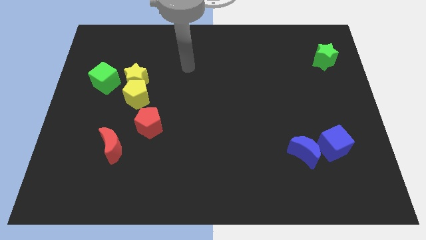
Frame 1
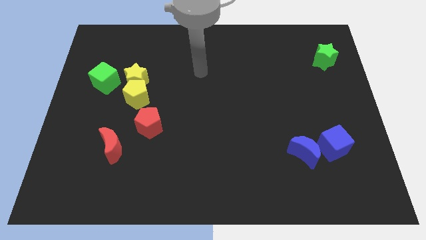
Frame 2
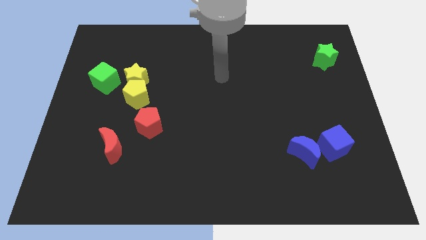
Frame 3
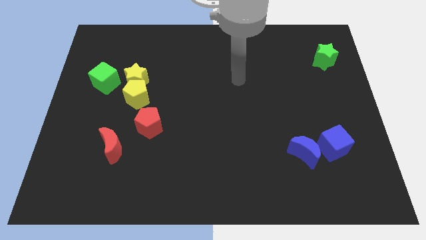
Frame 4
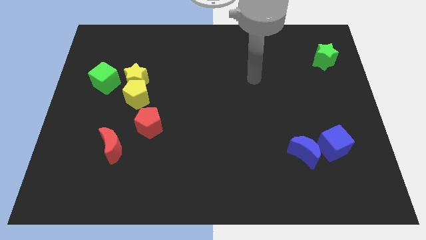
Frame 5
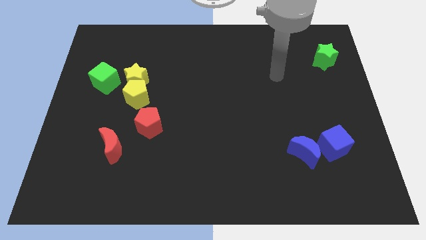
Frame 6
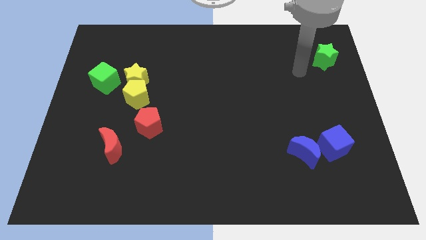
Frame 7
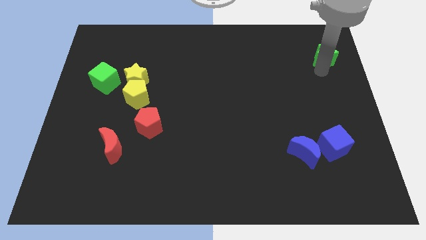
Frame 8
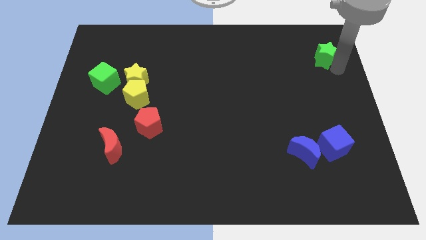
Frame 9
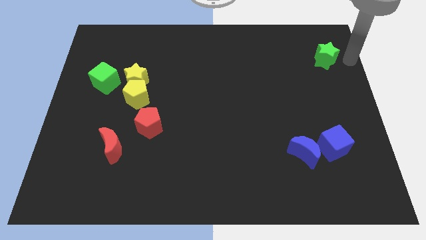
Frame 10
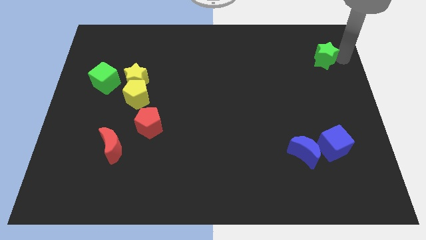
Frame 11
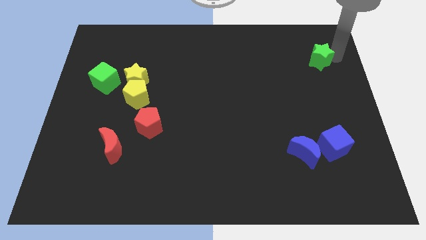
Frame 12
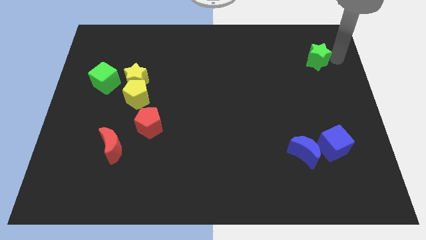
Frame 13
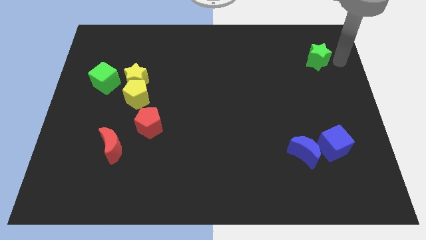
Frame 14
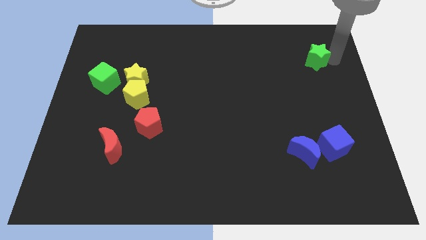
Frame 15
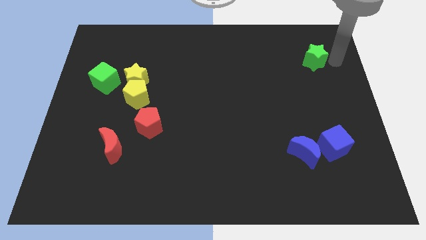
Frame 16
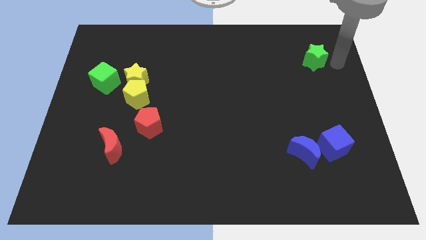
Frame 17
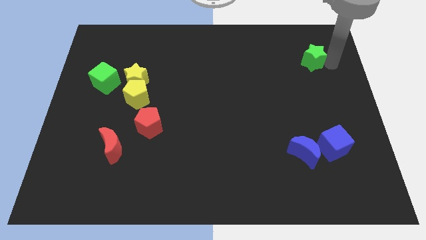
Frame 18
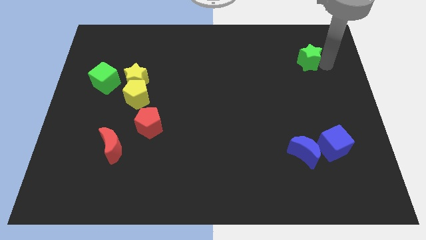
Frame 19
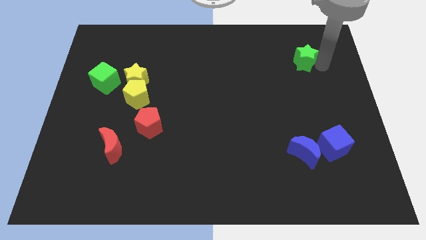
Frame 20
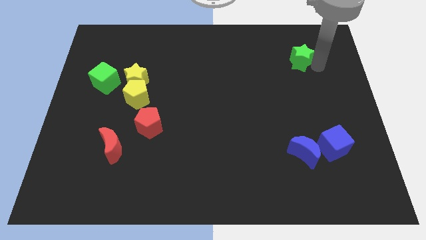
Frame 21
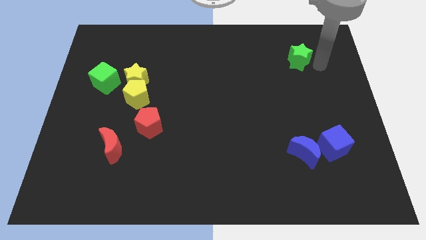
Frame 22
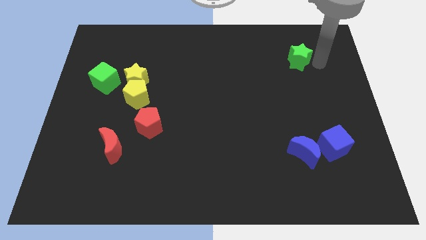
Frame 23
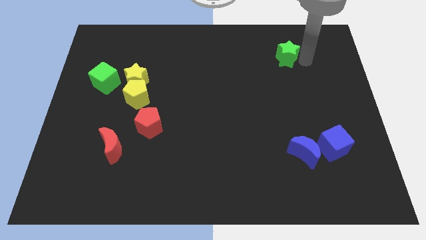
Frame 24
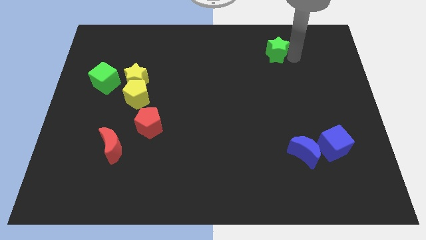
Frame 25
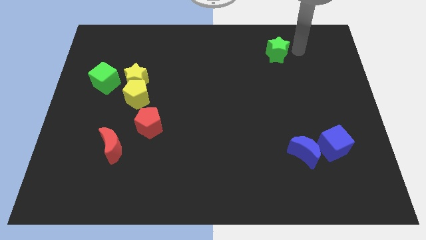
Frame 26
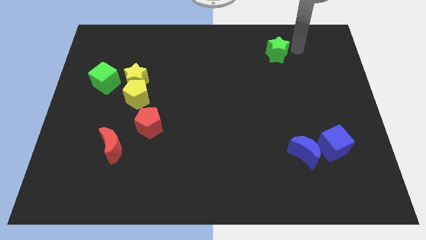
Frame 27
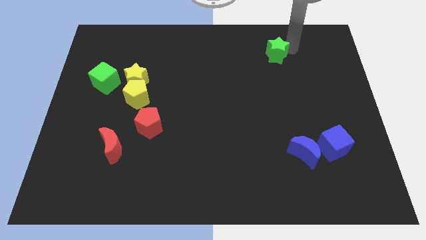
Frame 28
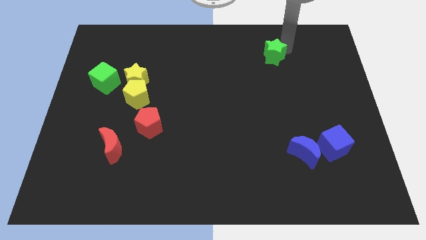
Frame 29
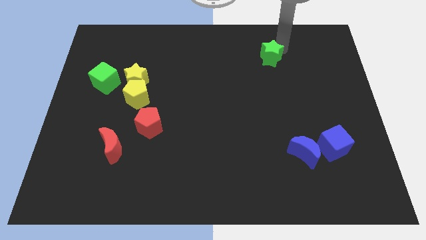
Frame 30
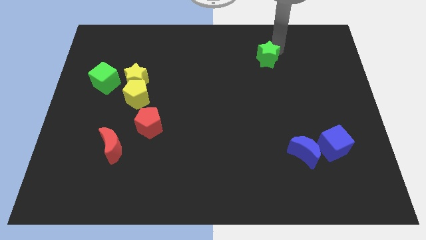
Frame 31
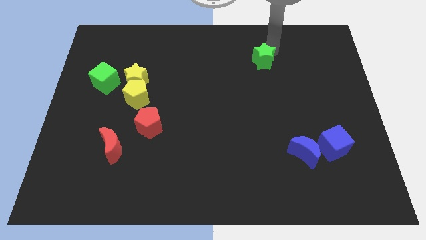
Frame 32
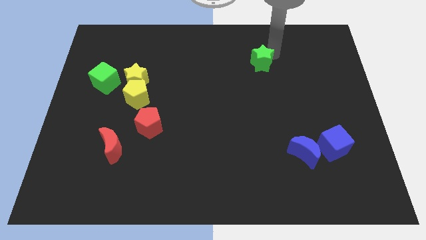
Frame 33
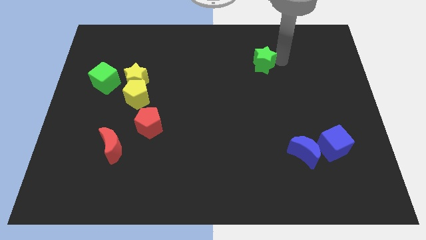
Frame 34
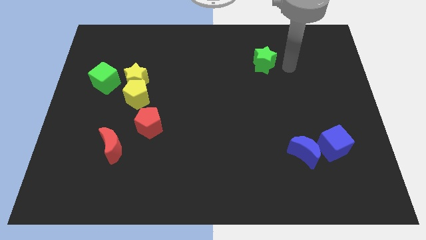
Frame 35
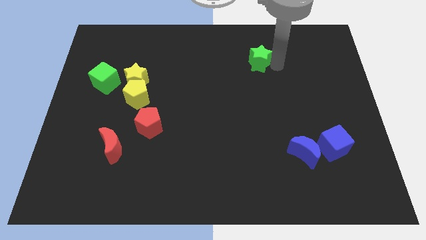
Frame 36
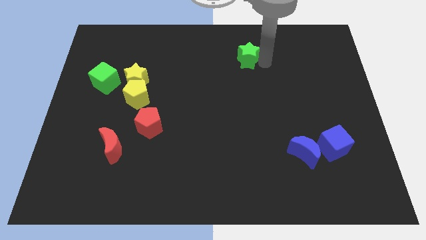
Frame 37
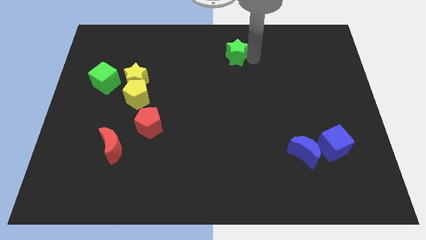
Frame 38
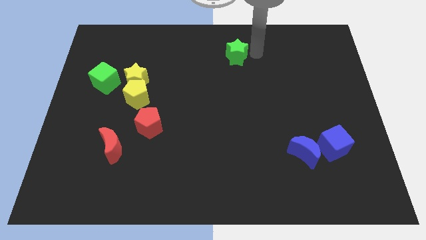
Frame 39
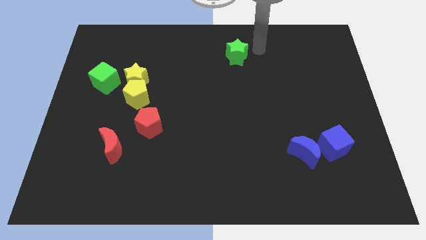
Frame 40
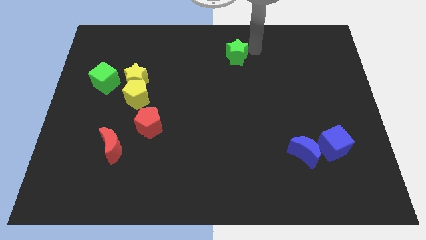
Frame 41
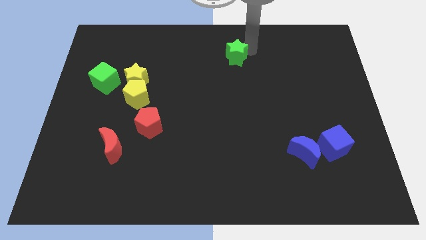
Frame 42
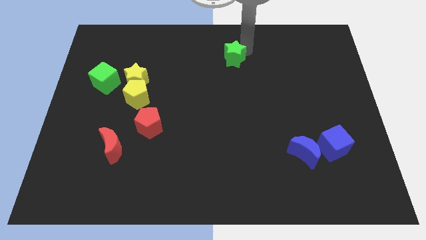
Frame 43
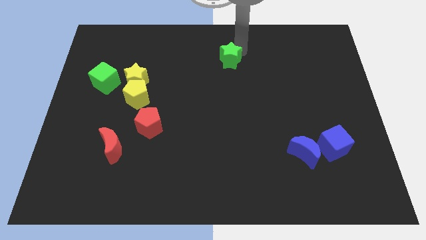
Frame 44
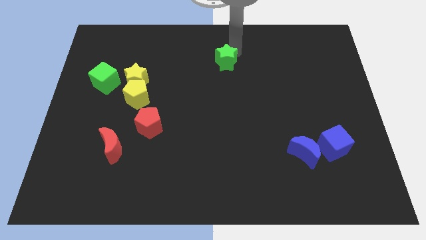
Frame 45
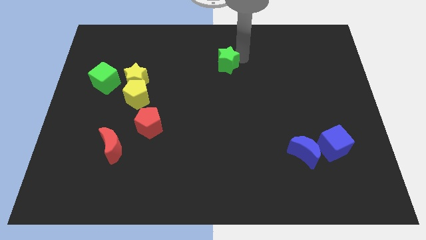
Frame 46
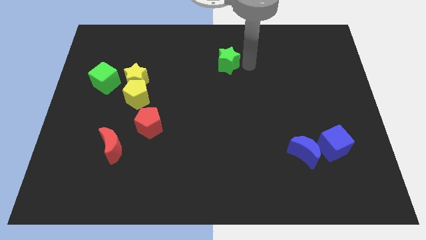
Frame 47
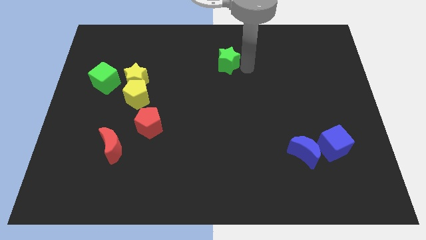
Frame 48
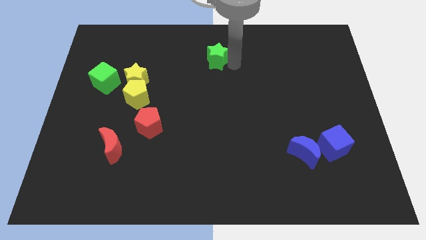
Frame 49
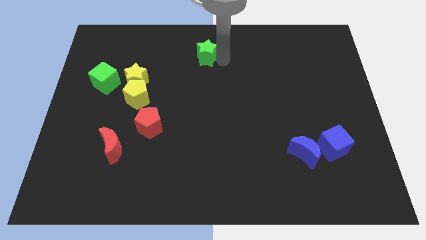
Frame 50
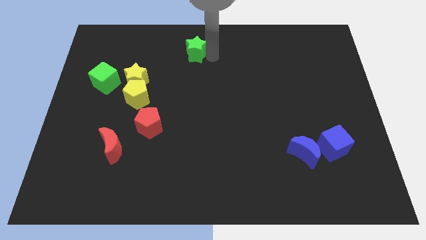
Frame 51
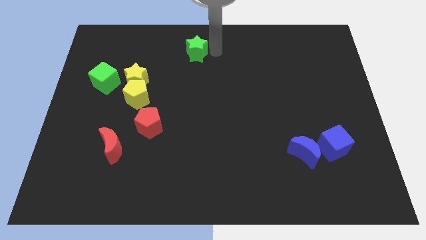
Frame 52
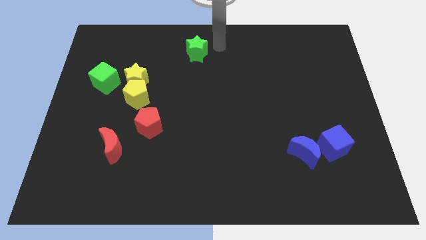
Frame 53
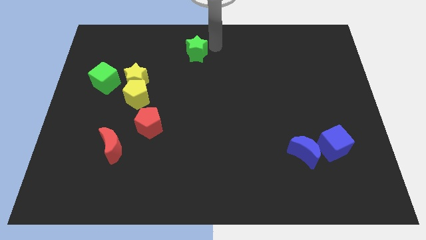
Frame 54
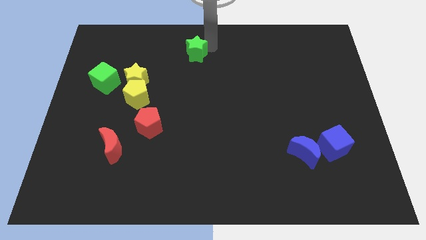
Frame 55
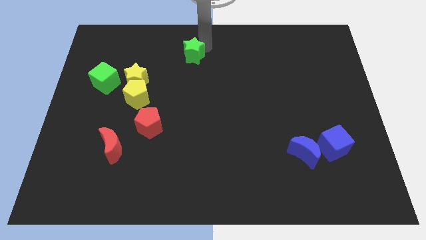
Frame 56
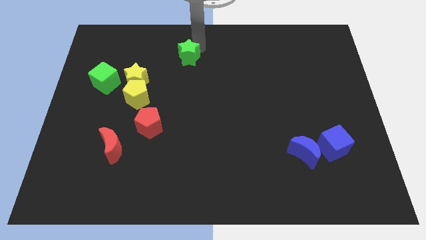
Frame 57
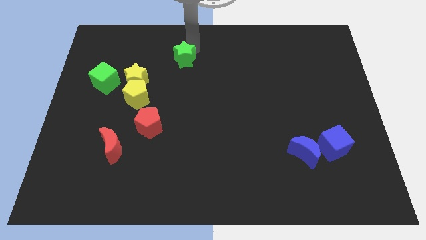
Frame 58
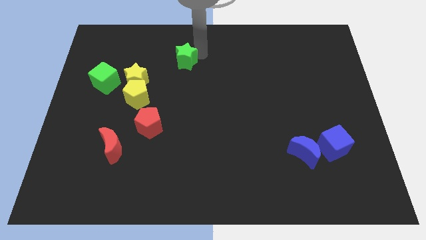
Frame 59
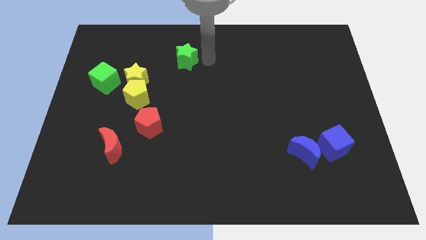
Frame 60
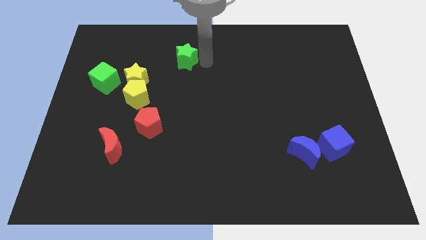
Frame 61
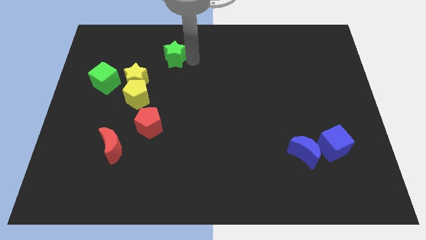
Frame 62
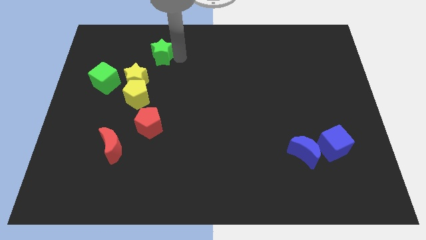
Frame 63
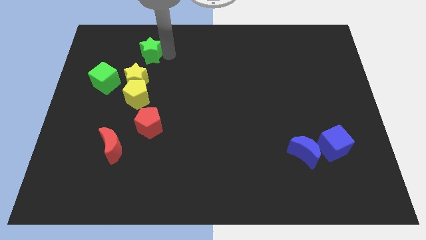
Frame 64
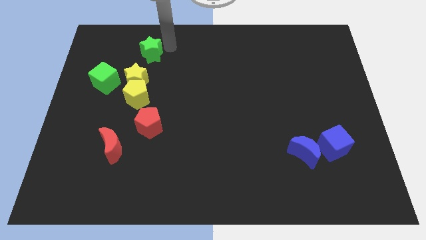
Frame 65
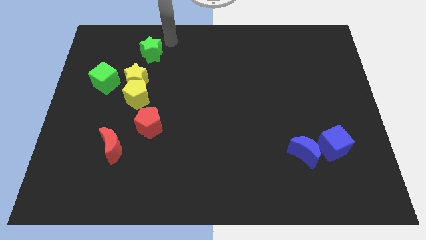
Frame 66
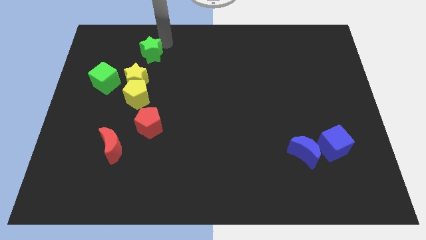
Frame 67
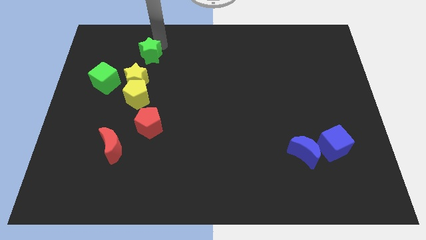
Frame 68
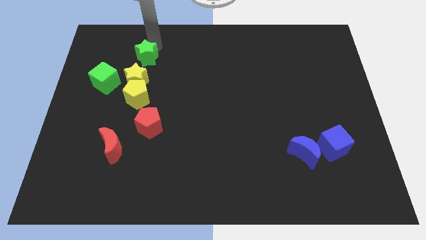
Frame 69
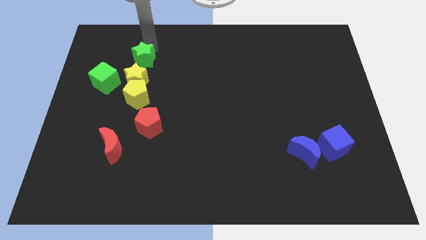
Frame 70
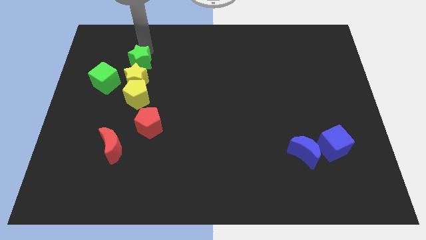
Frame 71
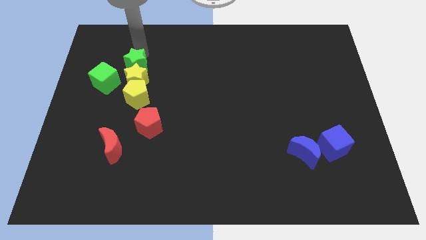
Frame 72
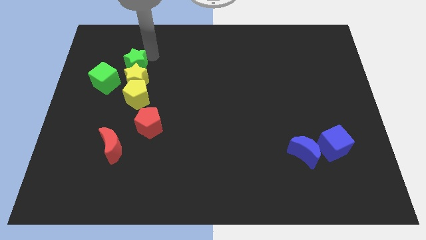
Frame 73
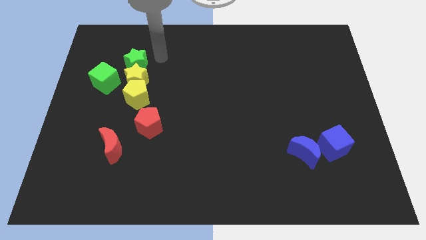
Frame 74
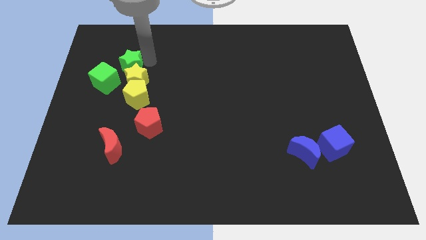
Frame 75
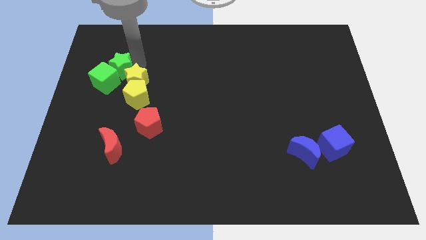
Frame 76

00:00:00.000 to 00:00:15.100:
slide the green star close to the green cube
